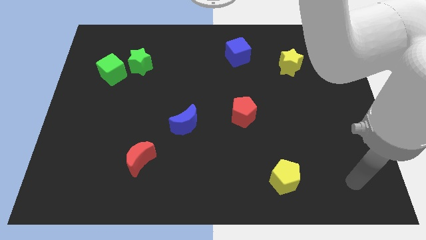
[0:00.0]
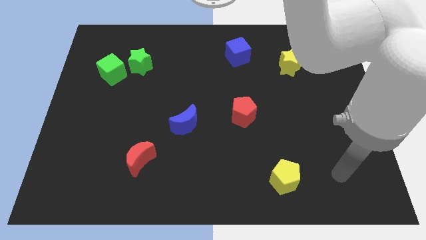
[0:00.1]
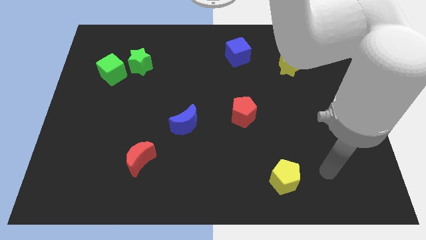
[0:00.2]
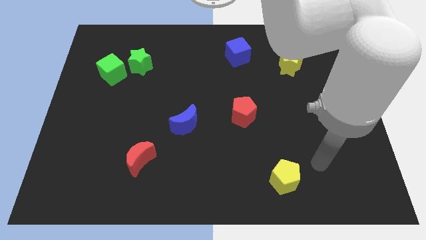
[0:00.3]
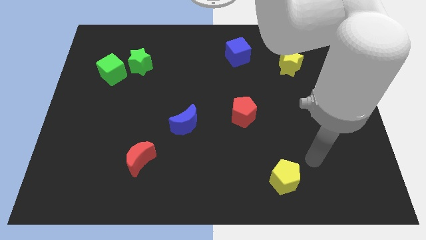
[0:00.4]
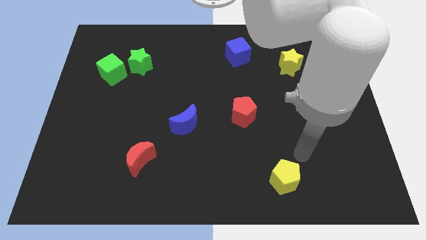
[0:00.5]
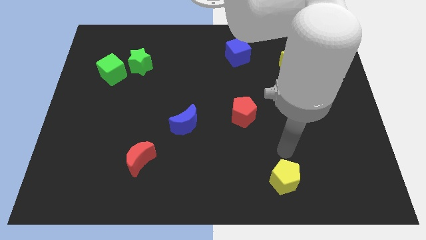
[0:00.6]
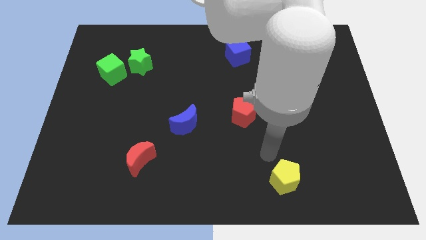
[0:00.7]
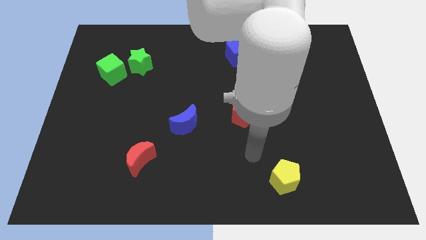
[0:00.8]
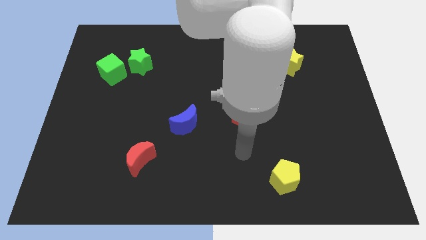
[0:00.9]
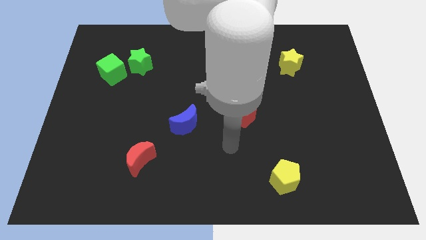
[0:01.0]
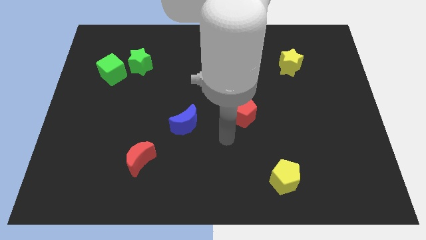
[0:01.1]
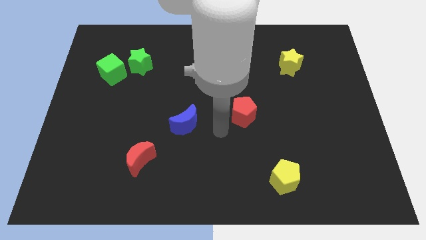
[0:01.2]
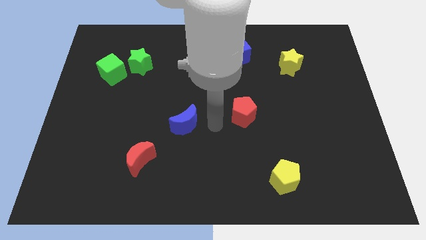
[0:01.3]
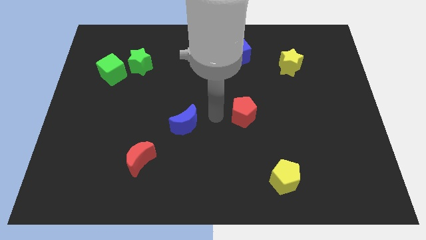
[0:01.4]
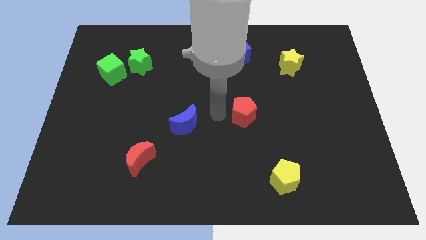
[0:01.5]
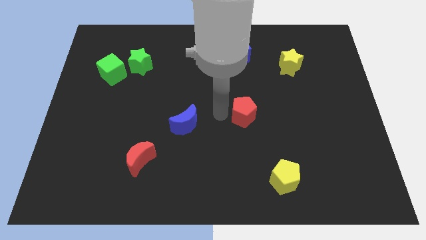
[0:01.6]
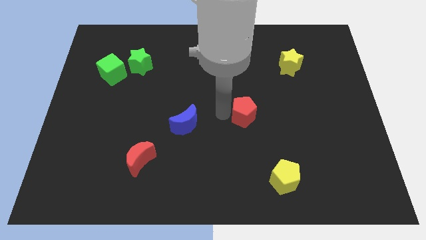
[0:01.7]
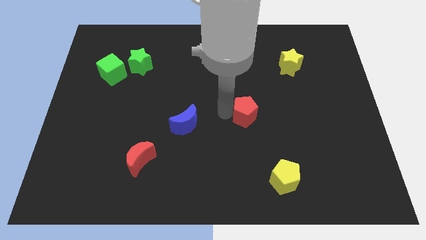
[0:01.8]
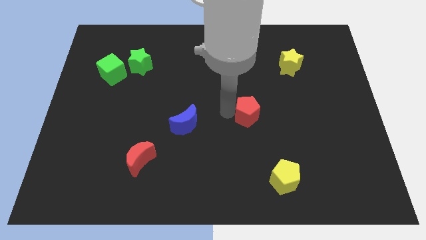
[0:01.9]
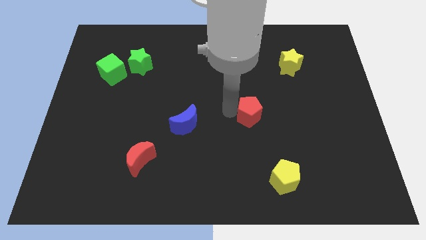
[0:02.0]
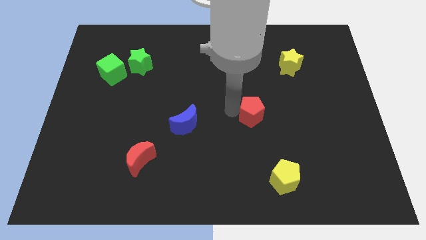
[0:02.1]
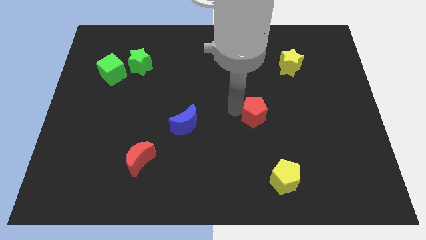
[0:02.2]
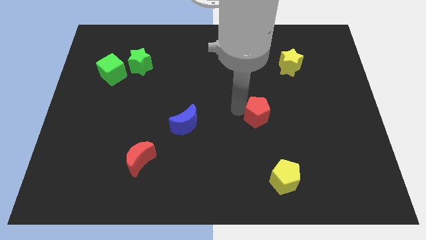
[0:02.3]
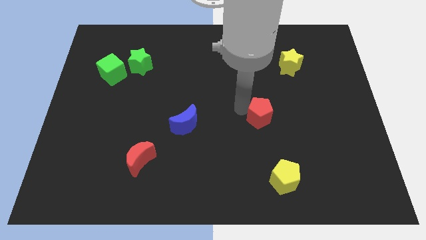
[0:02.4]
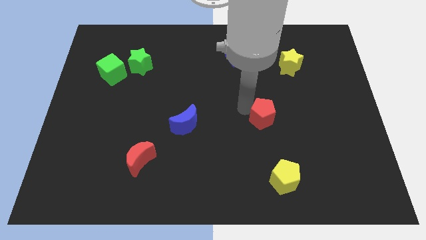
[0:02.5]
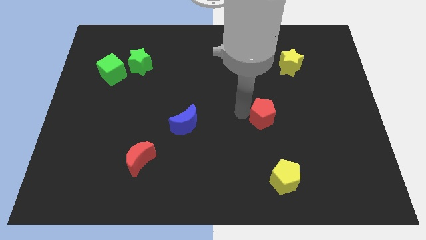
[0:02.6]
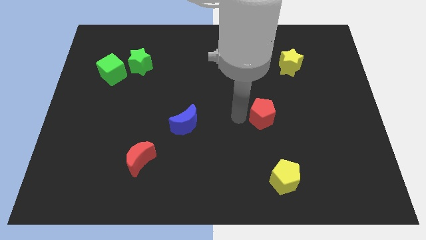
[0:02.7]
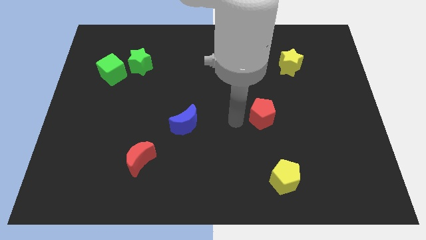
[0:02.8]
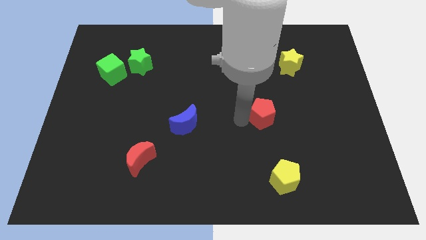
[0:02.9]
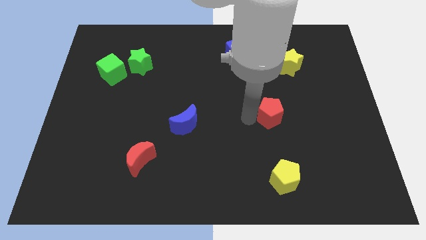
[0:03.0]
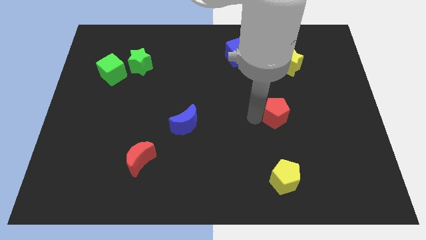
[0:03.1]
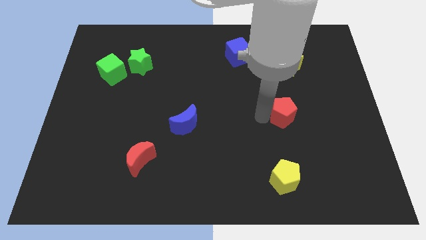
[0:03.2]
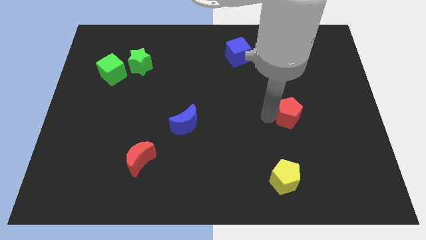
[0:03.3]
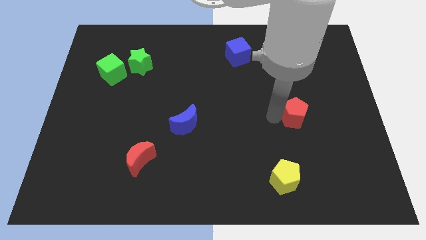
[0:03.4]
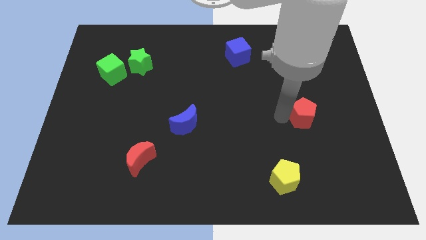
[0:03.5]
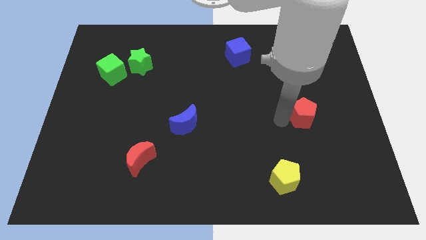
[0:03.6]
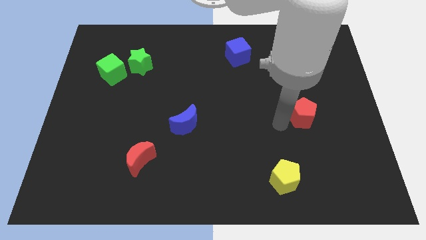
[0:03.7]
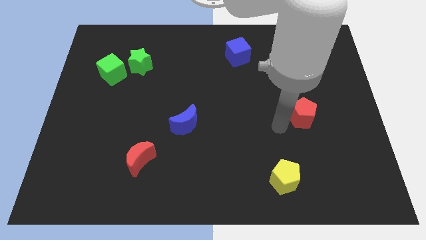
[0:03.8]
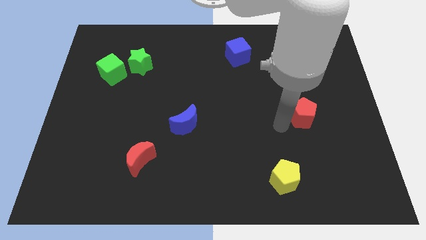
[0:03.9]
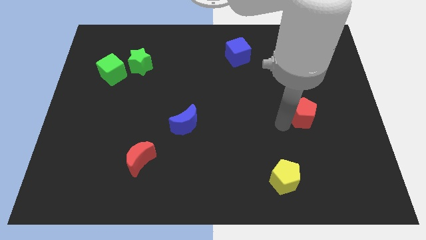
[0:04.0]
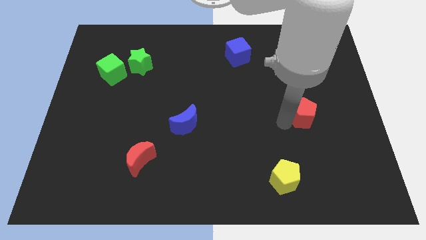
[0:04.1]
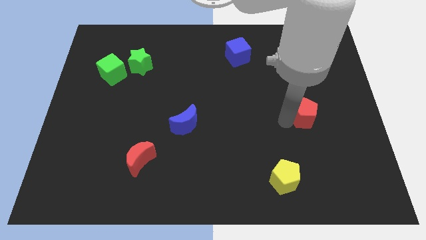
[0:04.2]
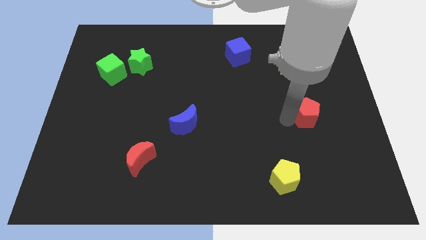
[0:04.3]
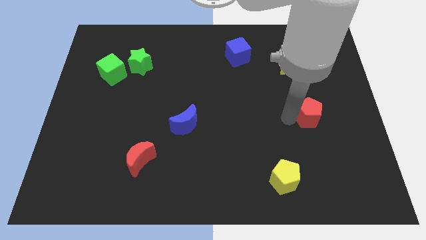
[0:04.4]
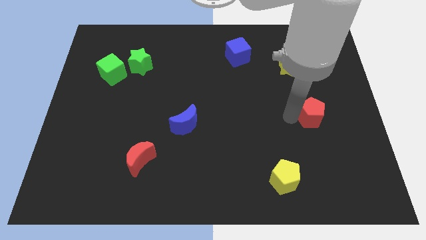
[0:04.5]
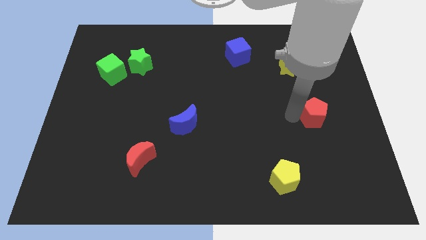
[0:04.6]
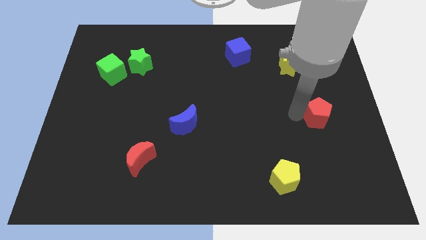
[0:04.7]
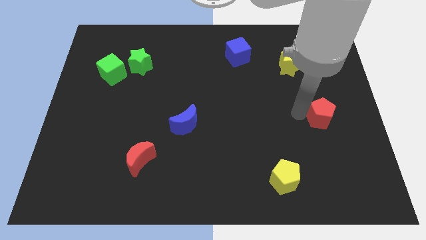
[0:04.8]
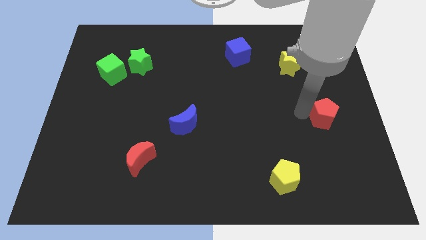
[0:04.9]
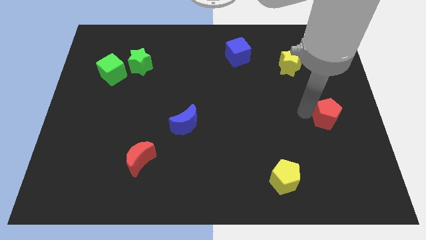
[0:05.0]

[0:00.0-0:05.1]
move the red pentagon to the right side of the board

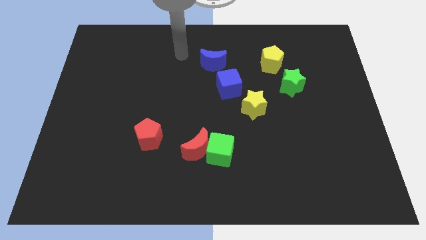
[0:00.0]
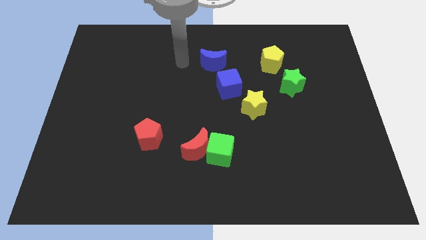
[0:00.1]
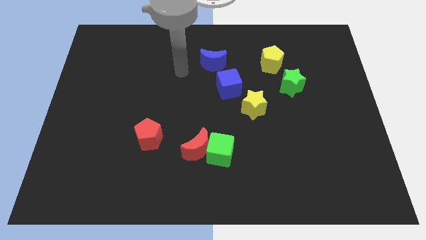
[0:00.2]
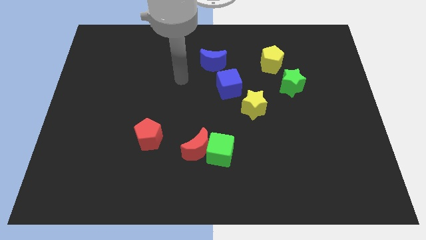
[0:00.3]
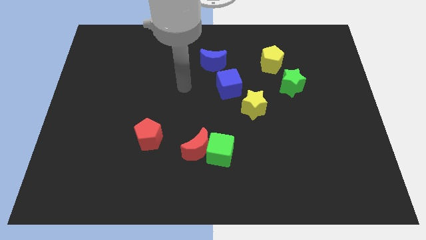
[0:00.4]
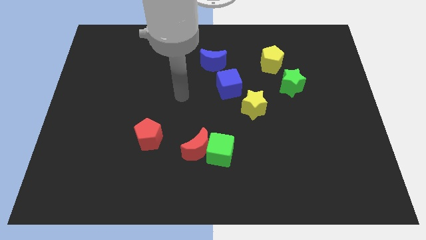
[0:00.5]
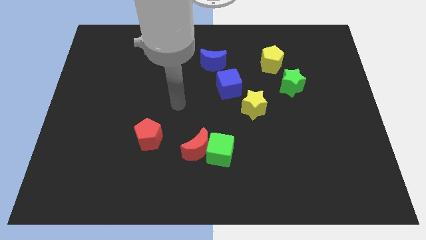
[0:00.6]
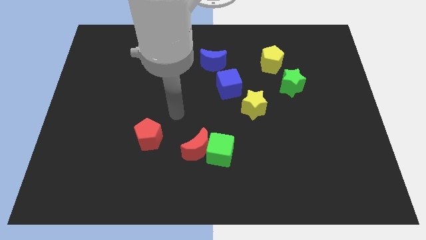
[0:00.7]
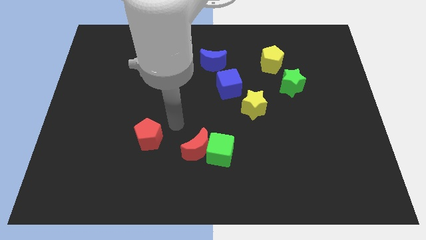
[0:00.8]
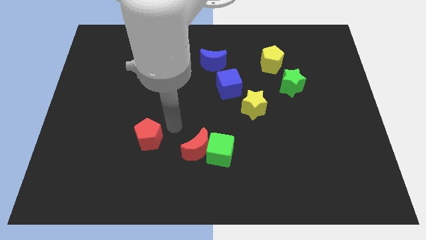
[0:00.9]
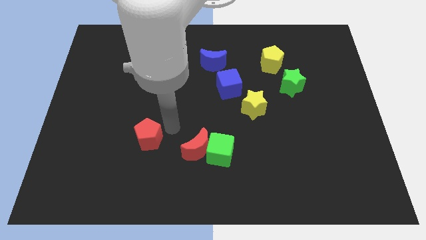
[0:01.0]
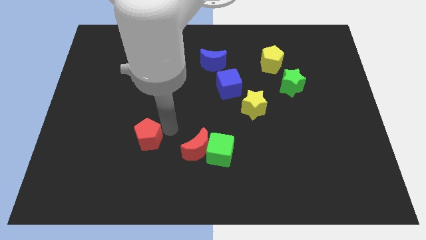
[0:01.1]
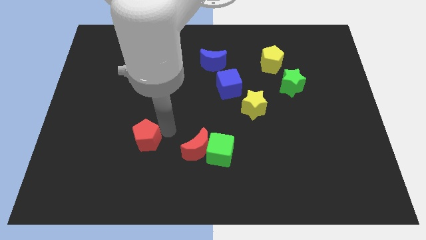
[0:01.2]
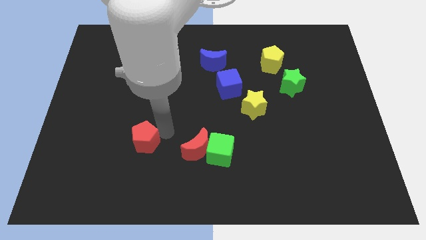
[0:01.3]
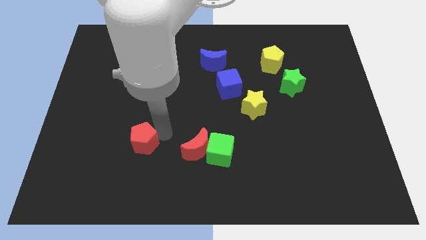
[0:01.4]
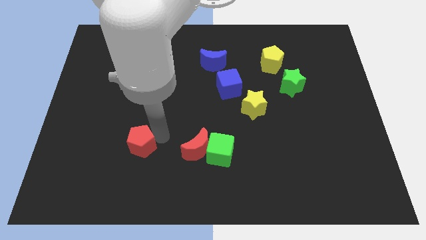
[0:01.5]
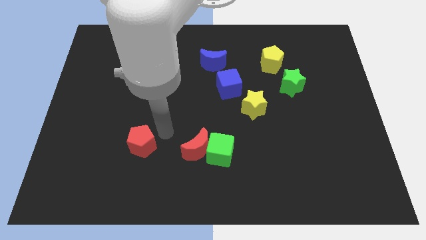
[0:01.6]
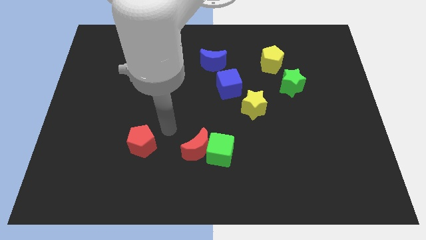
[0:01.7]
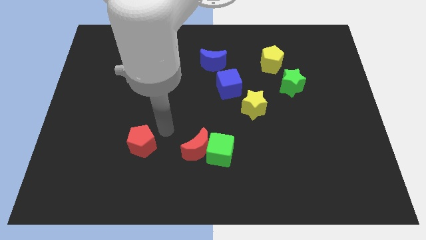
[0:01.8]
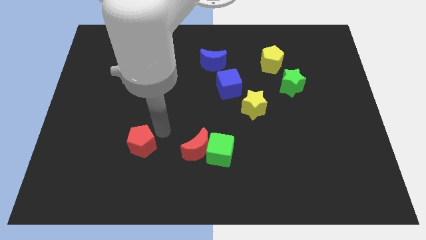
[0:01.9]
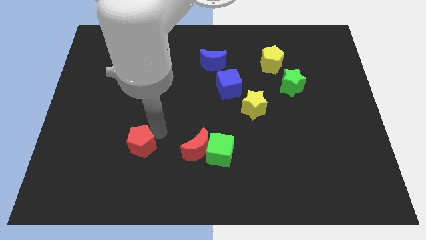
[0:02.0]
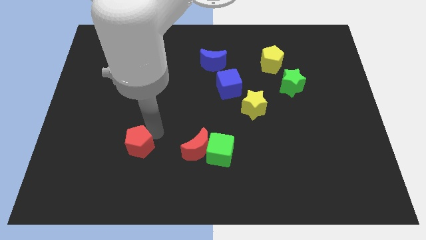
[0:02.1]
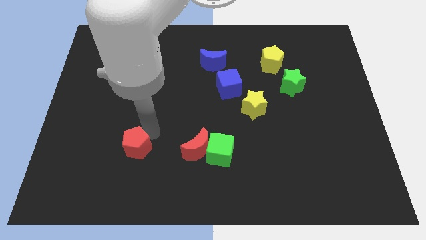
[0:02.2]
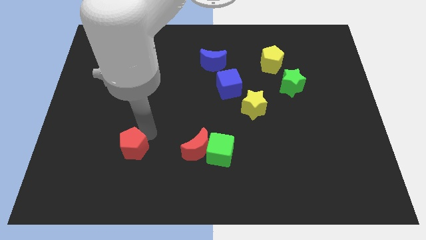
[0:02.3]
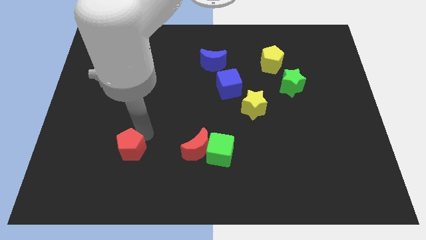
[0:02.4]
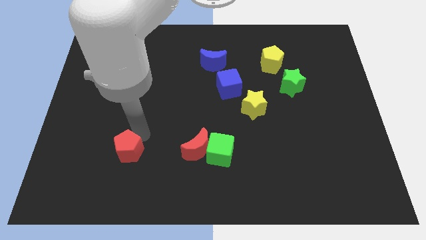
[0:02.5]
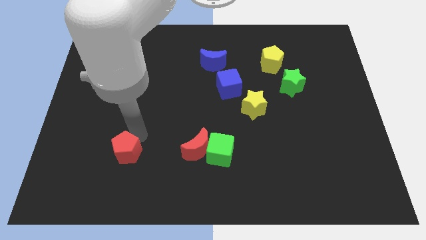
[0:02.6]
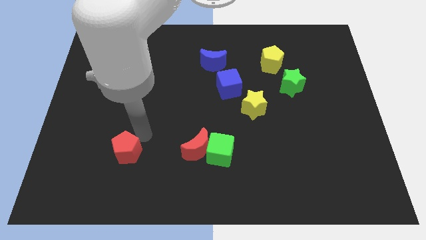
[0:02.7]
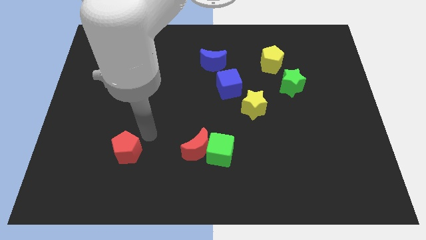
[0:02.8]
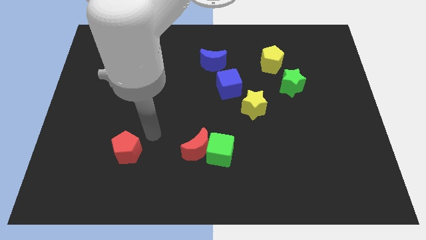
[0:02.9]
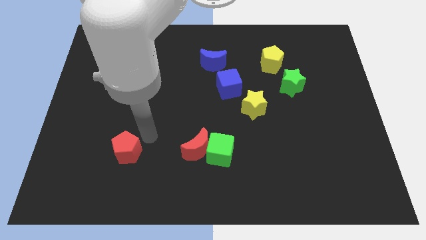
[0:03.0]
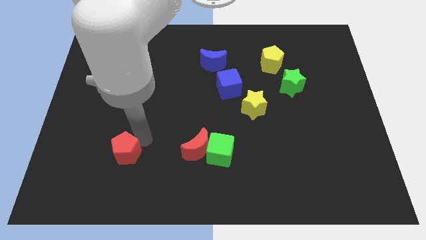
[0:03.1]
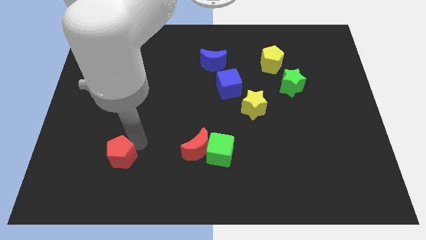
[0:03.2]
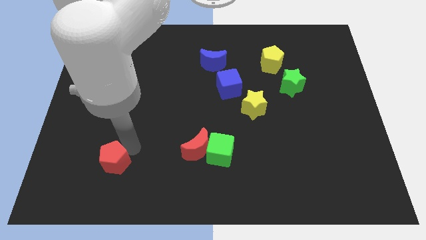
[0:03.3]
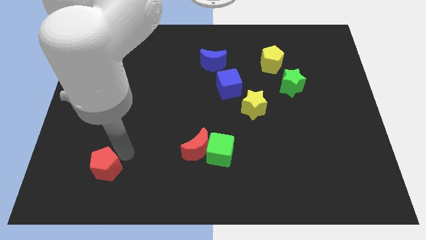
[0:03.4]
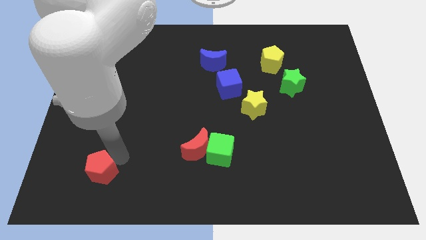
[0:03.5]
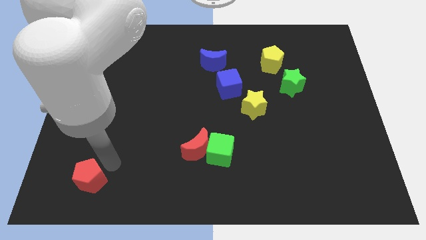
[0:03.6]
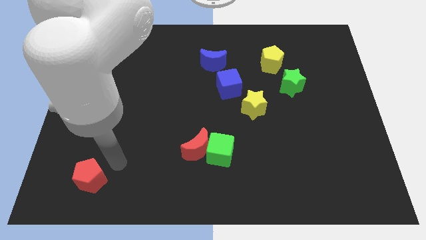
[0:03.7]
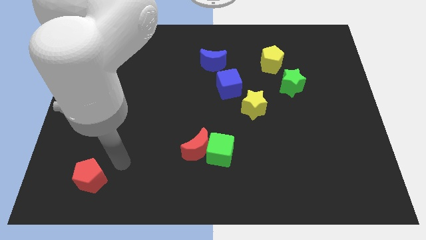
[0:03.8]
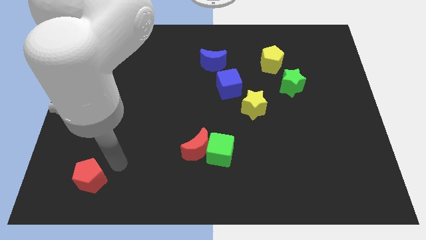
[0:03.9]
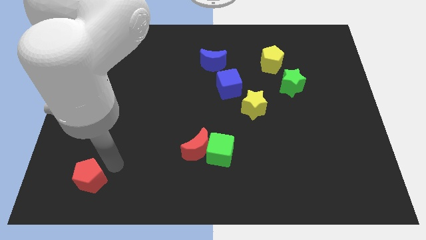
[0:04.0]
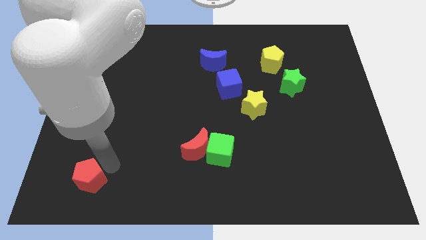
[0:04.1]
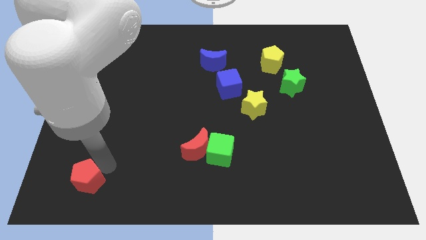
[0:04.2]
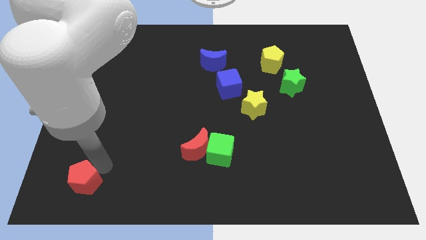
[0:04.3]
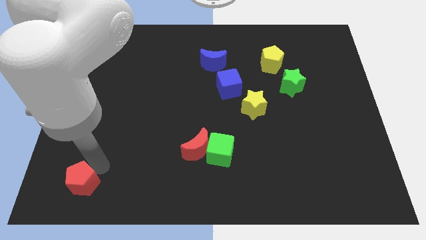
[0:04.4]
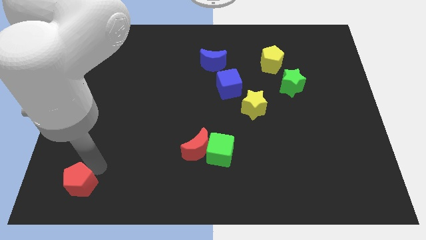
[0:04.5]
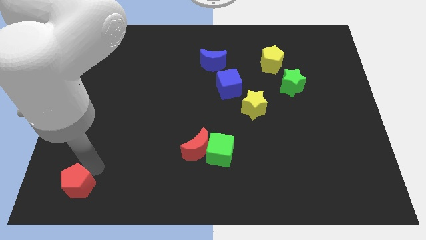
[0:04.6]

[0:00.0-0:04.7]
move the red pentagon to the bottom left of the board
